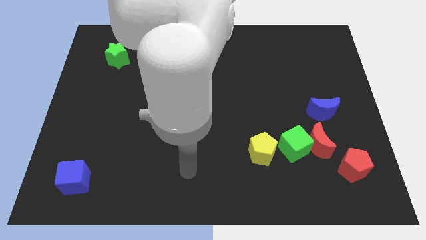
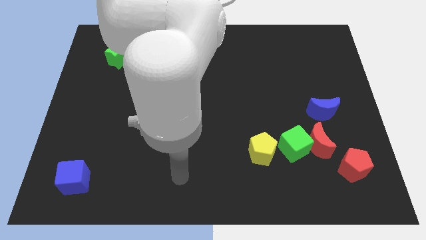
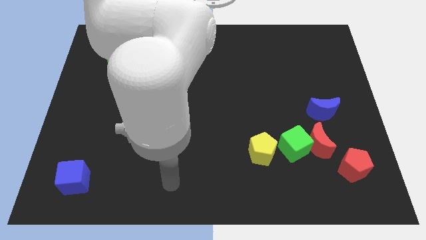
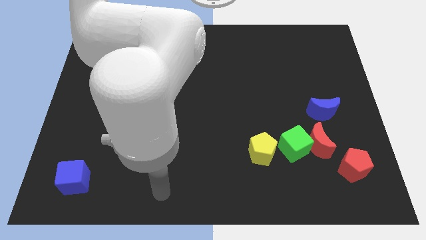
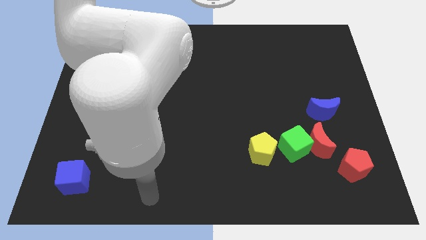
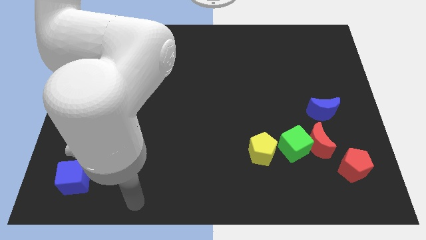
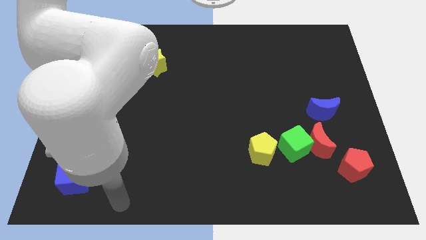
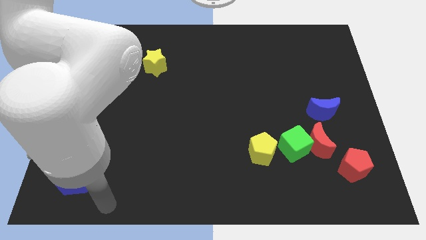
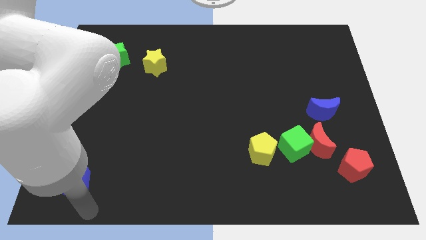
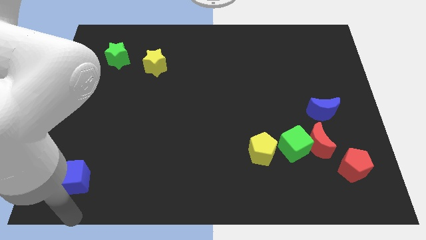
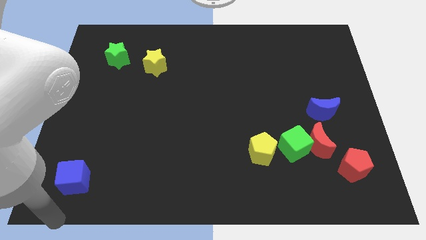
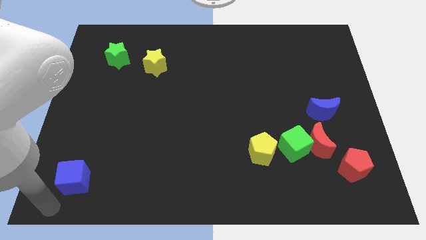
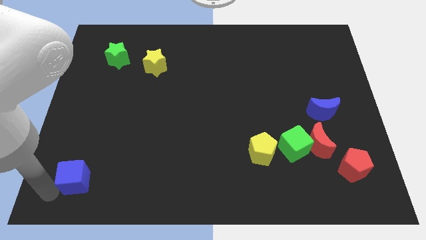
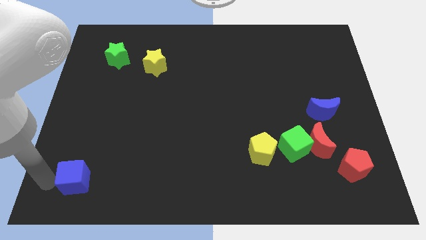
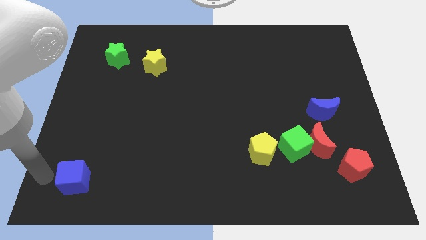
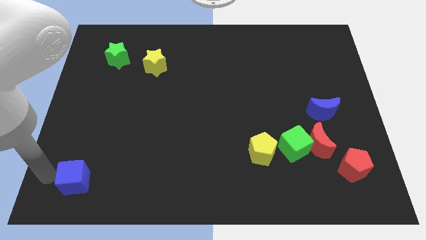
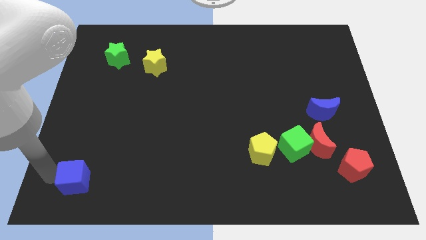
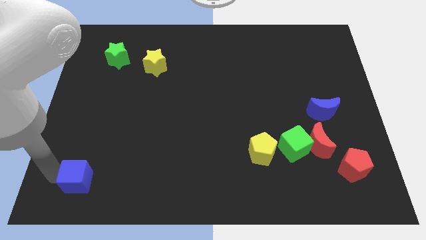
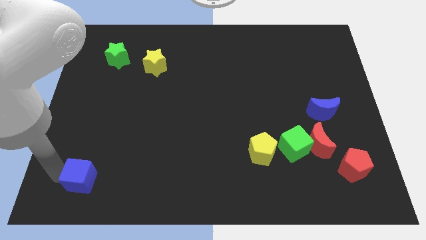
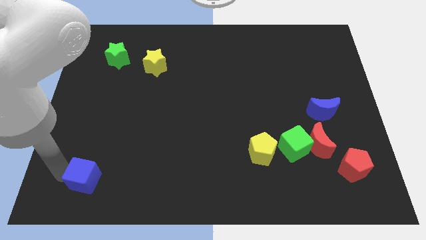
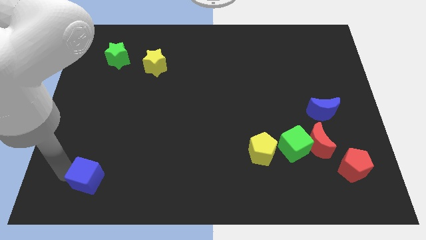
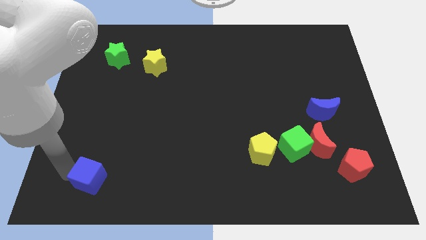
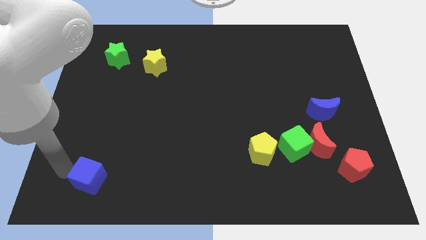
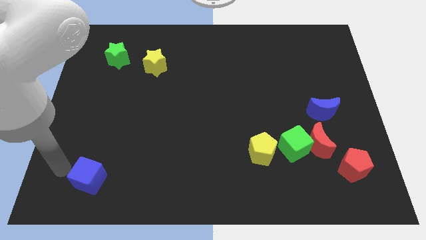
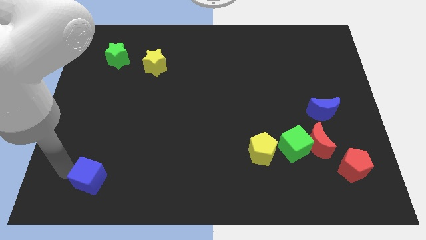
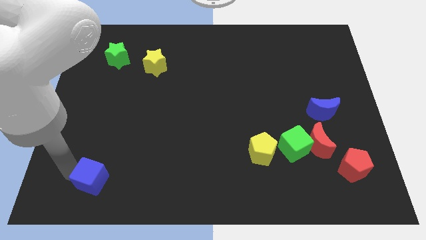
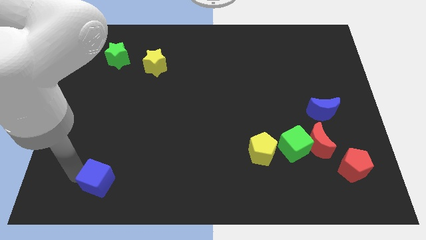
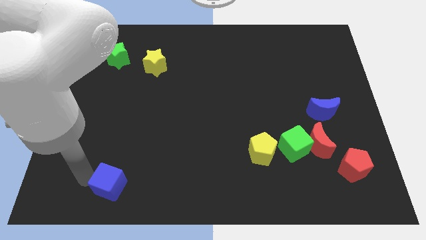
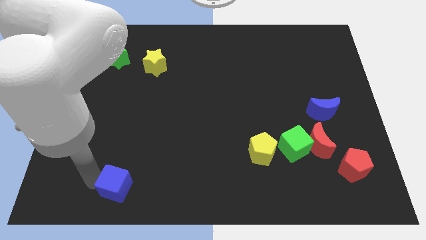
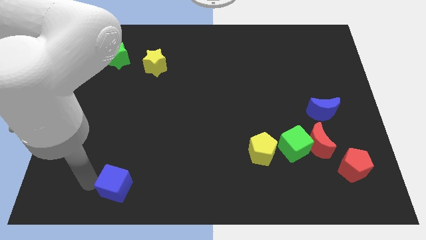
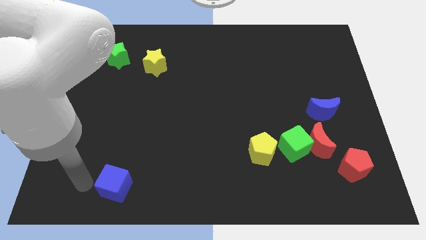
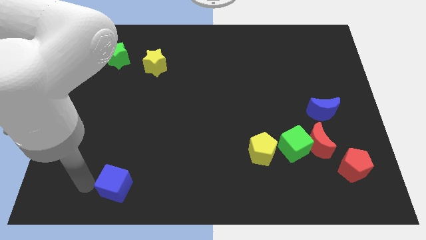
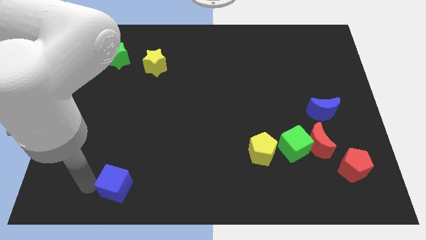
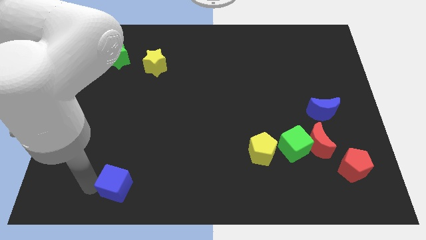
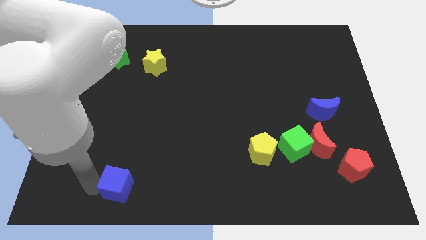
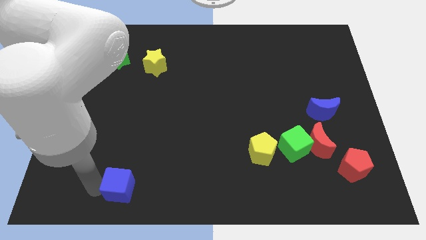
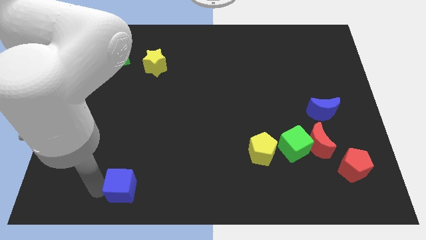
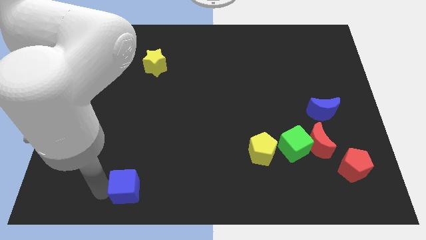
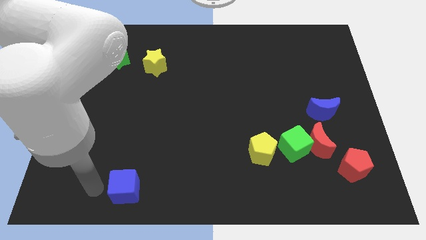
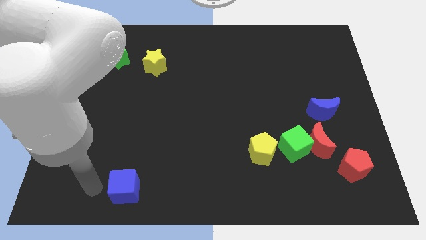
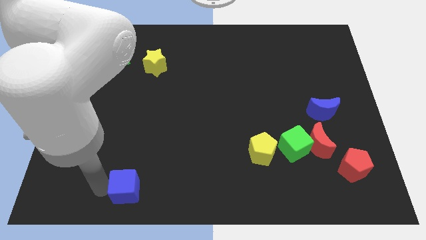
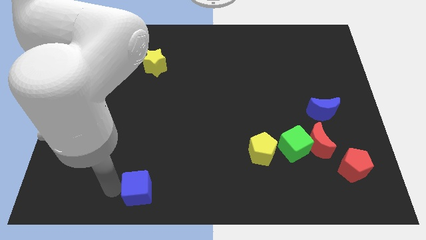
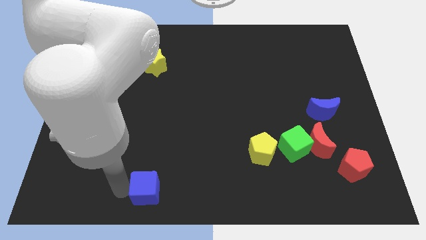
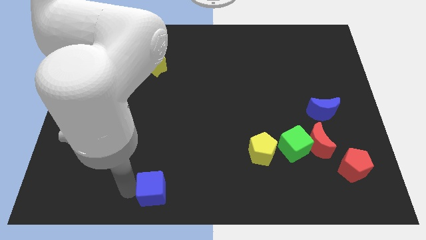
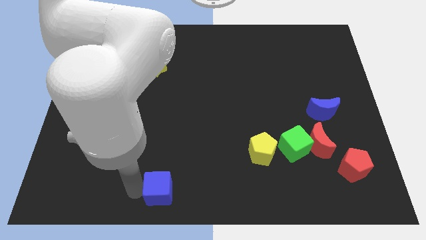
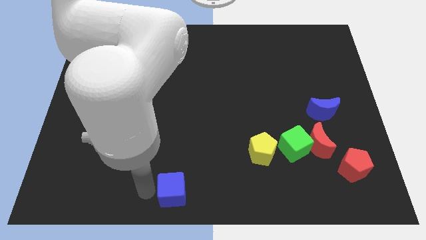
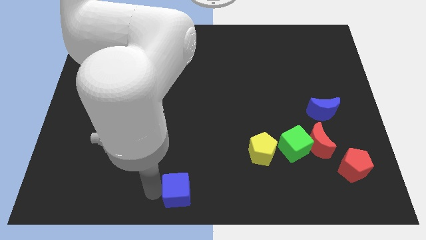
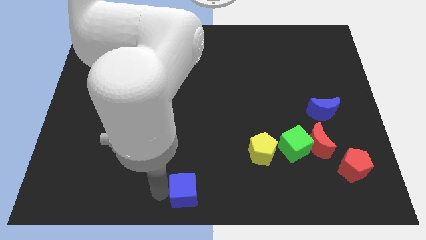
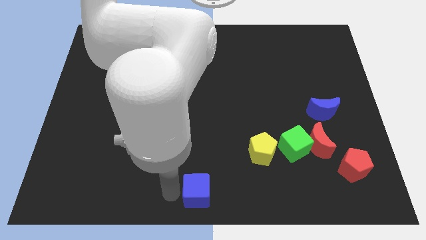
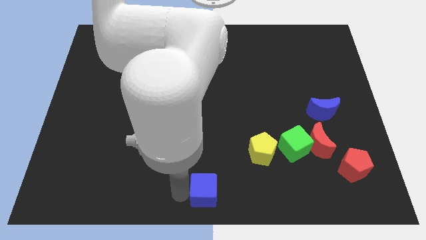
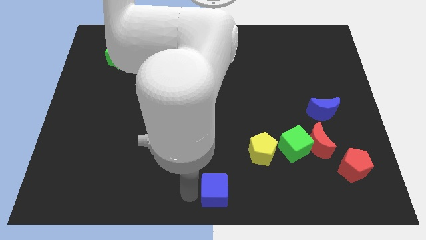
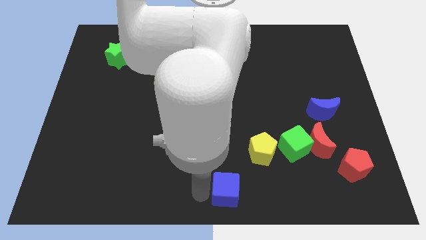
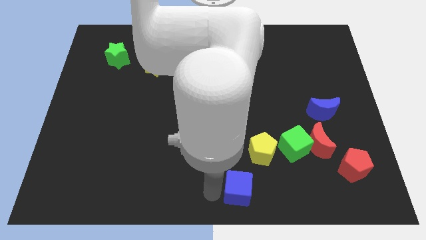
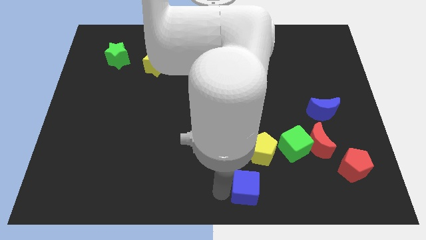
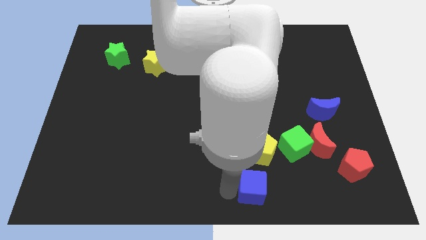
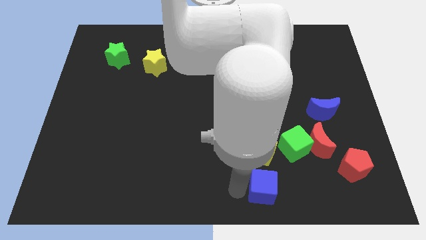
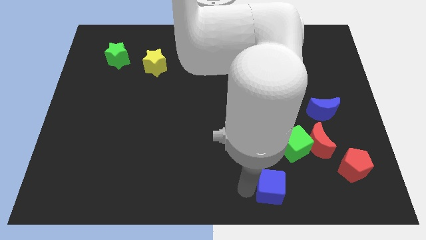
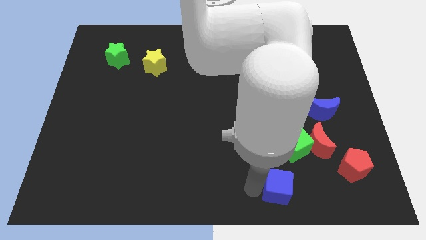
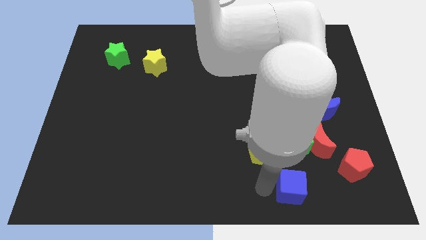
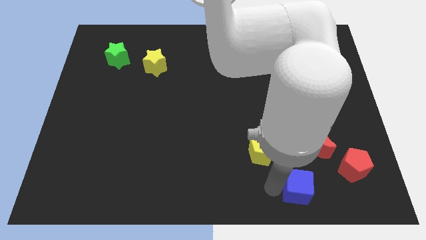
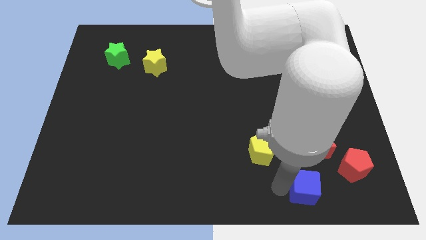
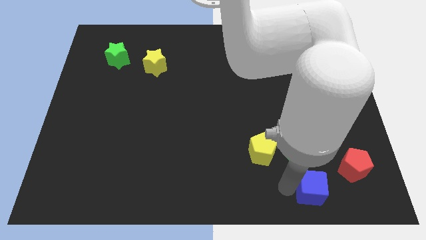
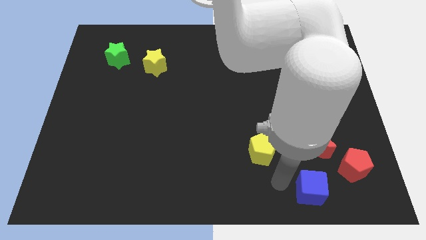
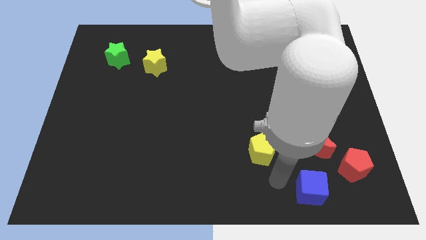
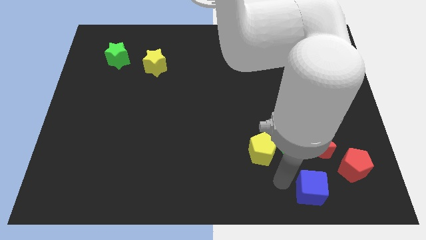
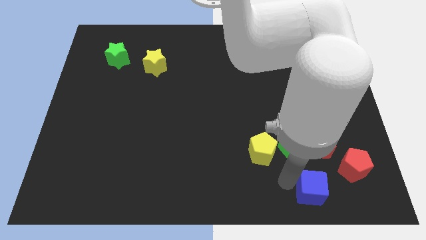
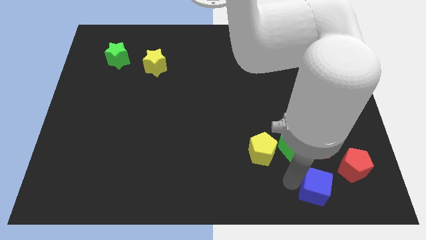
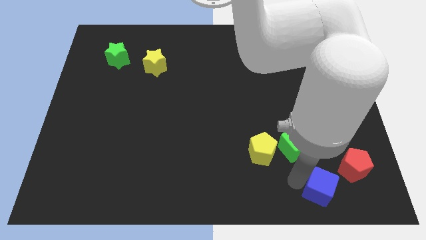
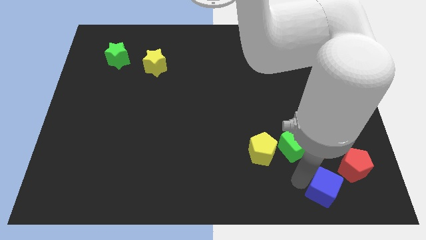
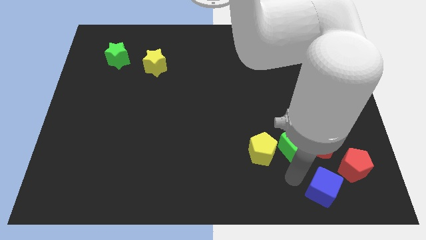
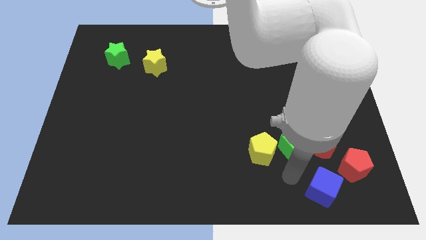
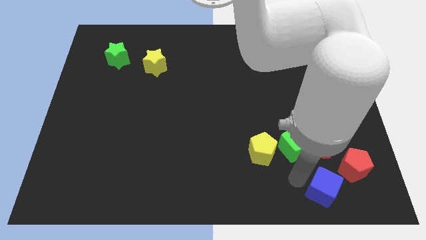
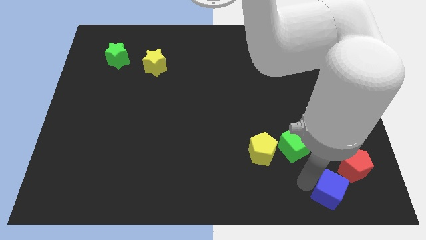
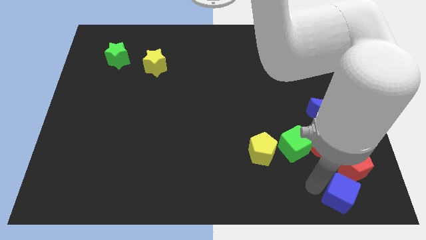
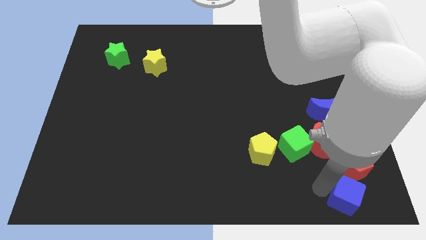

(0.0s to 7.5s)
push the blue cube to the bottom right of the board
